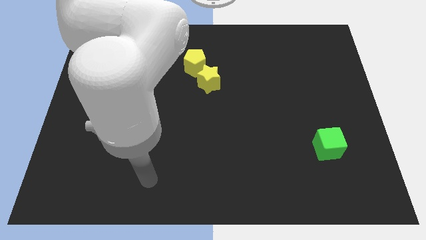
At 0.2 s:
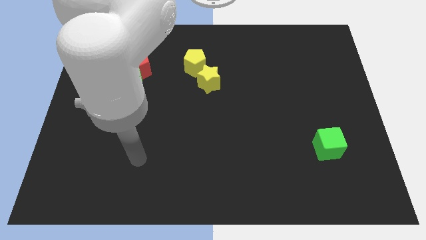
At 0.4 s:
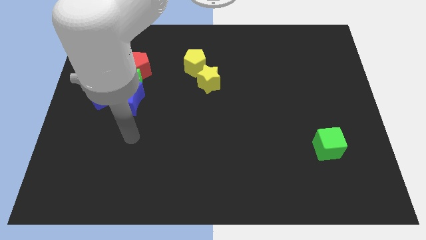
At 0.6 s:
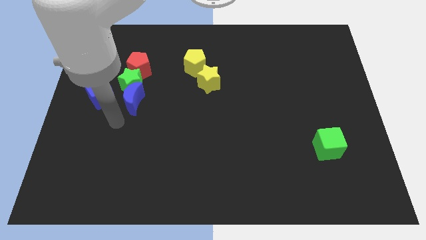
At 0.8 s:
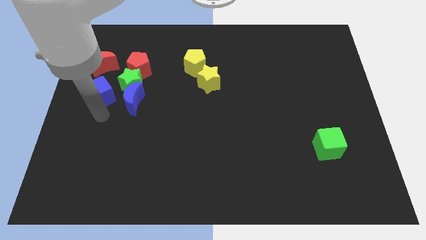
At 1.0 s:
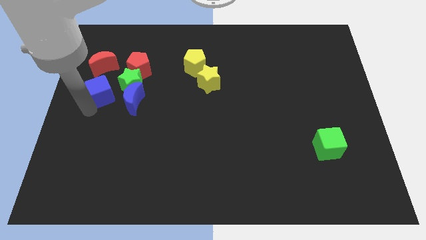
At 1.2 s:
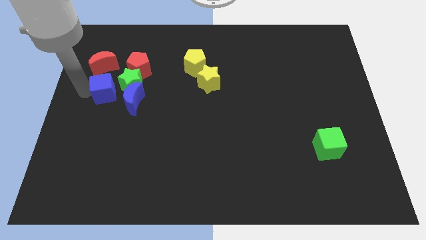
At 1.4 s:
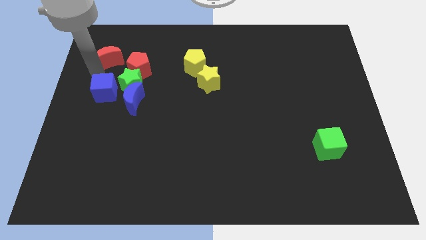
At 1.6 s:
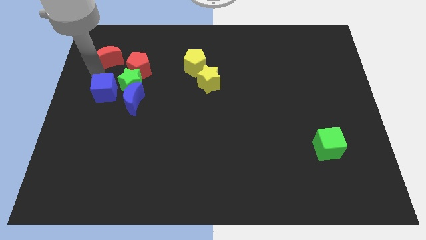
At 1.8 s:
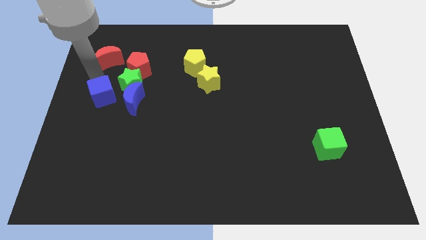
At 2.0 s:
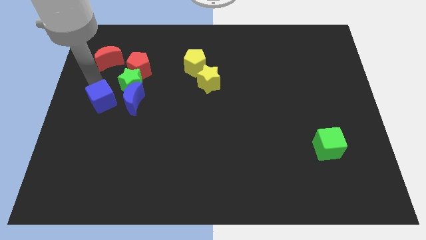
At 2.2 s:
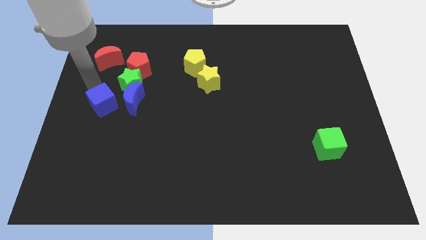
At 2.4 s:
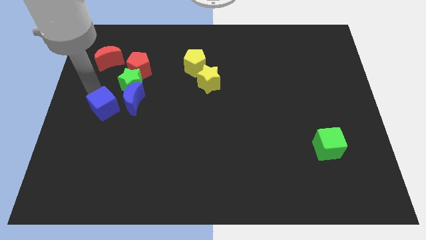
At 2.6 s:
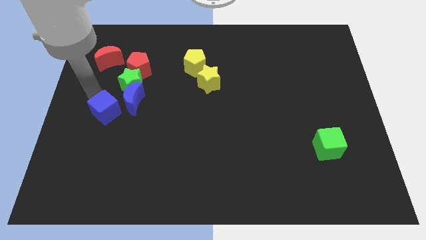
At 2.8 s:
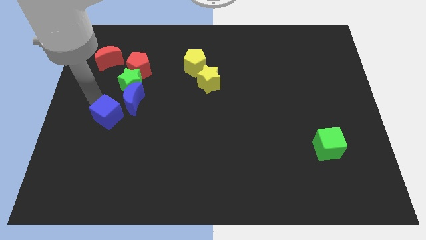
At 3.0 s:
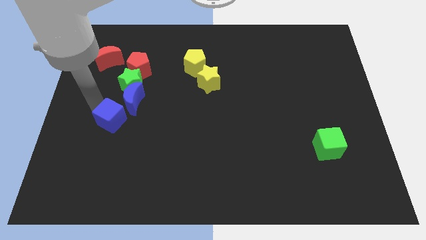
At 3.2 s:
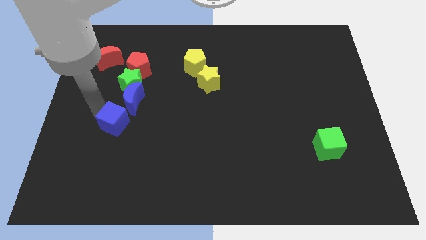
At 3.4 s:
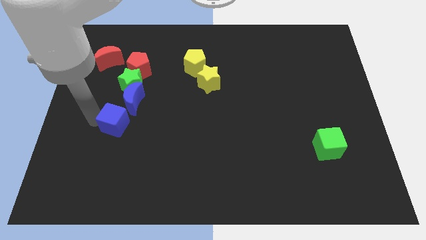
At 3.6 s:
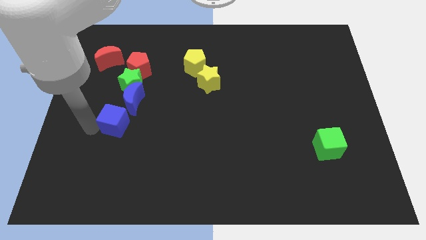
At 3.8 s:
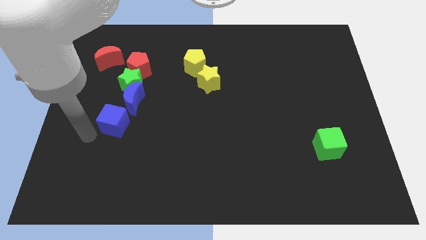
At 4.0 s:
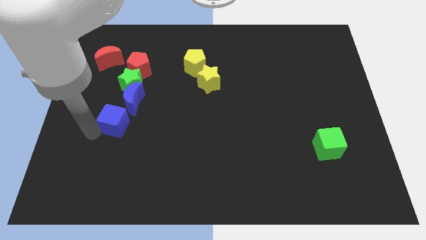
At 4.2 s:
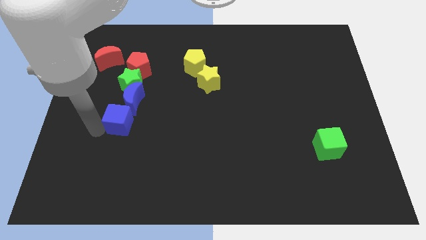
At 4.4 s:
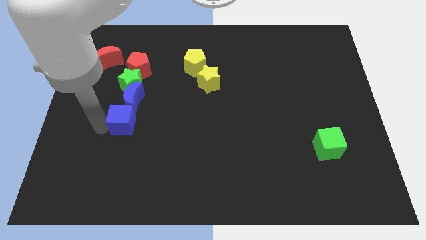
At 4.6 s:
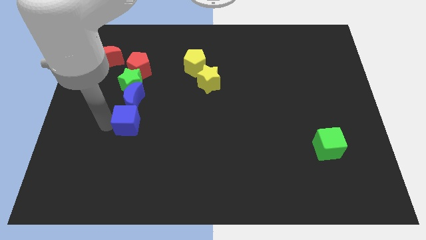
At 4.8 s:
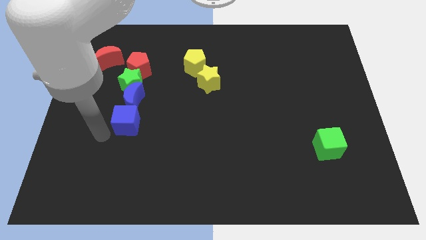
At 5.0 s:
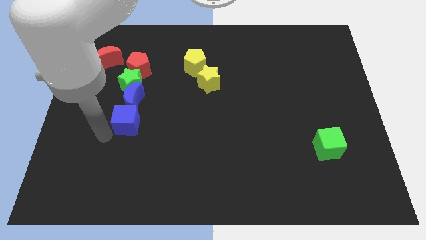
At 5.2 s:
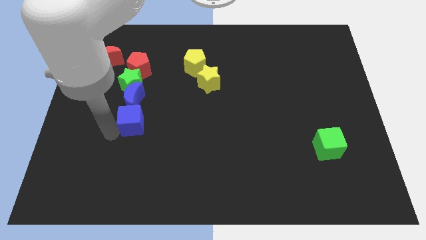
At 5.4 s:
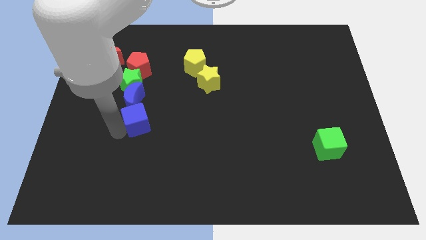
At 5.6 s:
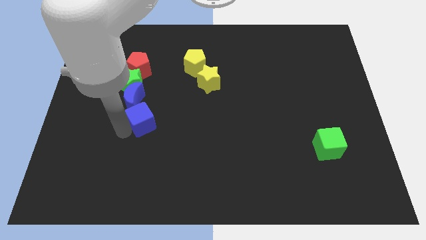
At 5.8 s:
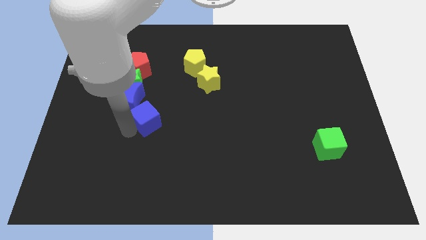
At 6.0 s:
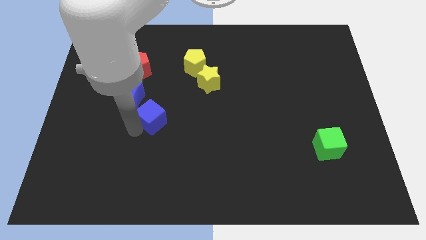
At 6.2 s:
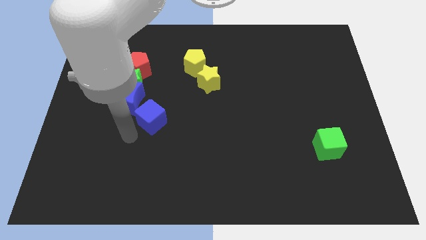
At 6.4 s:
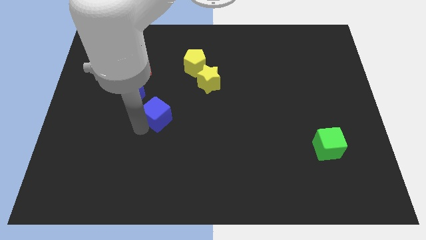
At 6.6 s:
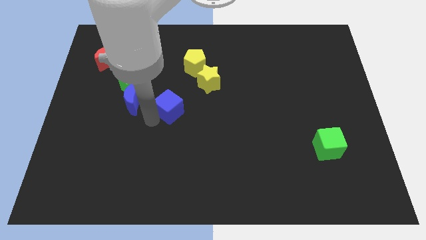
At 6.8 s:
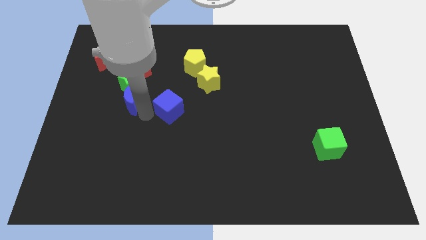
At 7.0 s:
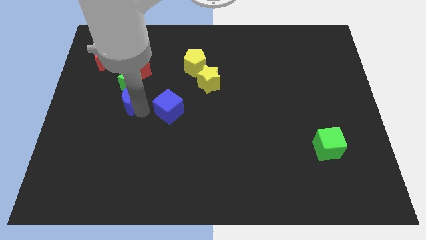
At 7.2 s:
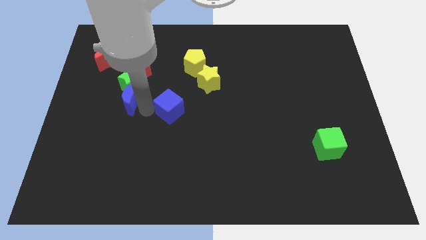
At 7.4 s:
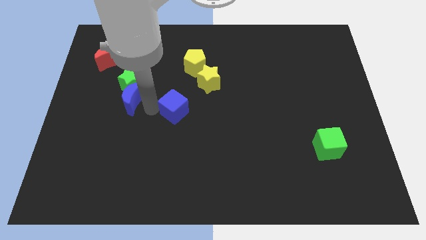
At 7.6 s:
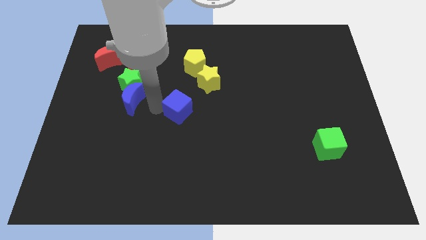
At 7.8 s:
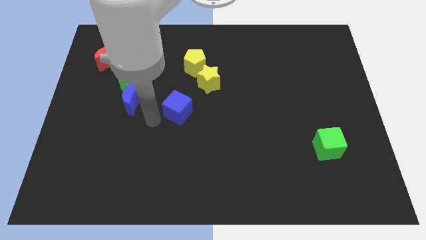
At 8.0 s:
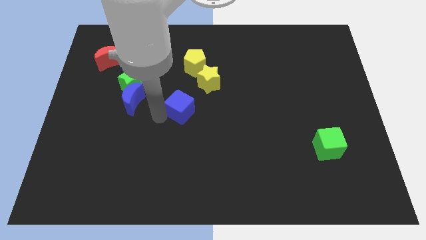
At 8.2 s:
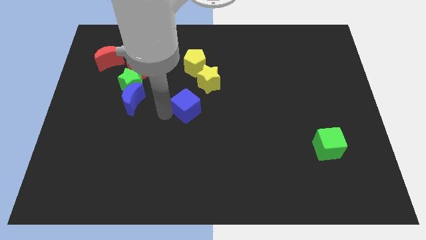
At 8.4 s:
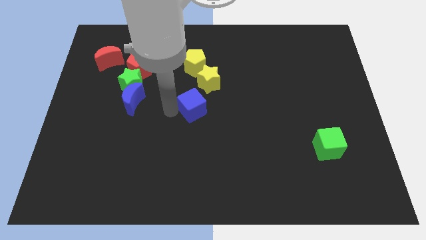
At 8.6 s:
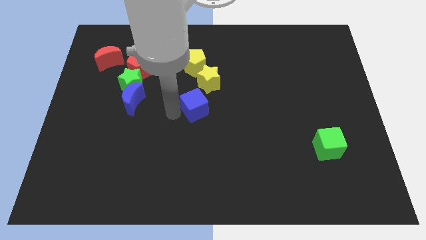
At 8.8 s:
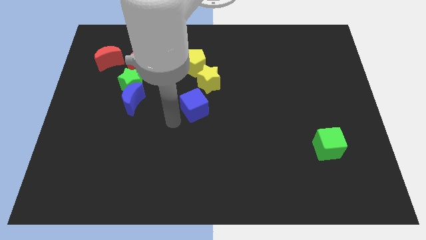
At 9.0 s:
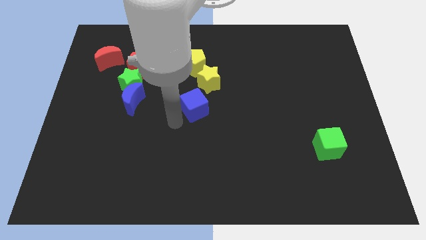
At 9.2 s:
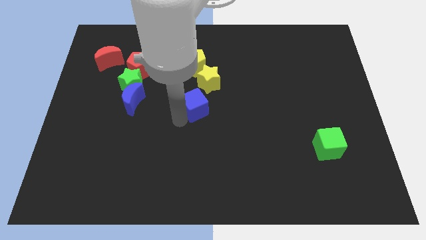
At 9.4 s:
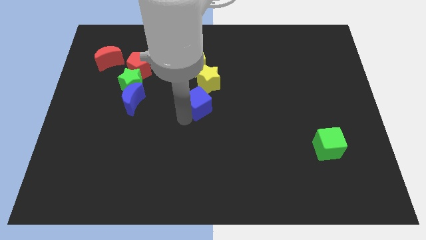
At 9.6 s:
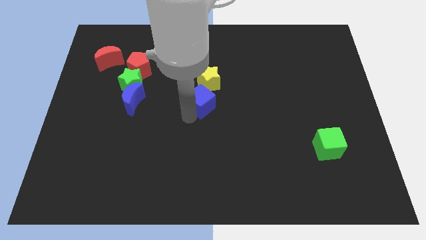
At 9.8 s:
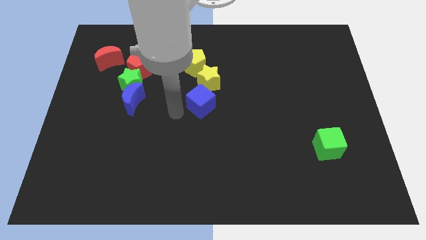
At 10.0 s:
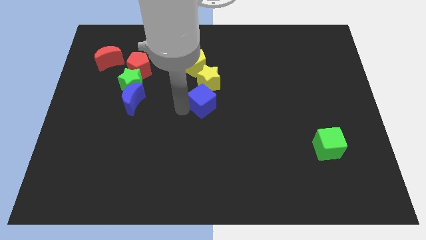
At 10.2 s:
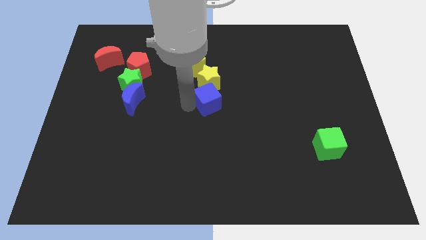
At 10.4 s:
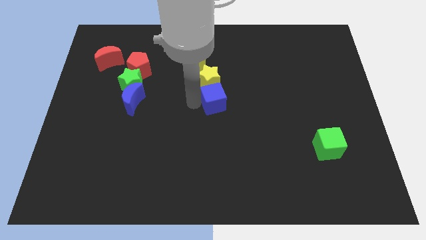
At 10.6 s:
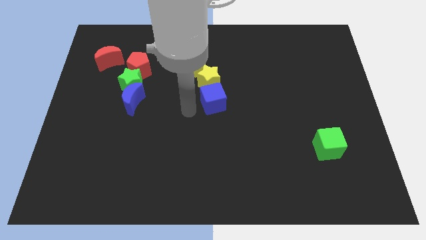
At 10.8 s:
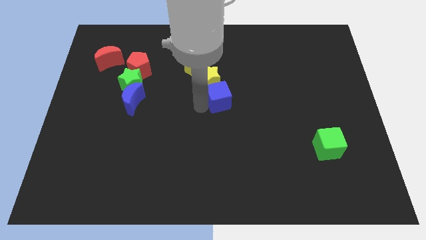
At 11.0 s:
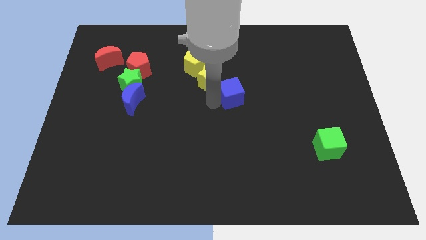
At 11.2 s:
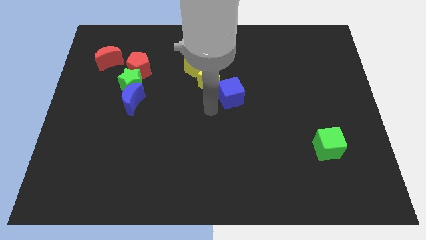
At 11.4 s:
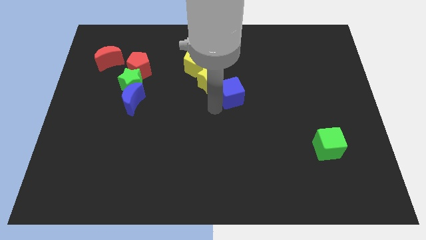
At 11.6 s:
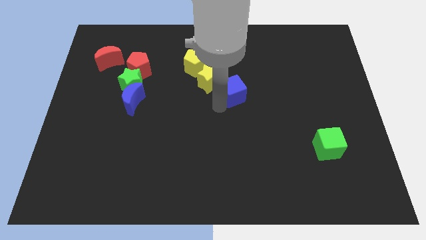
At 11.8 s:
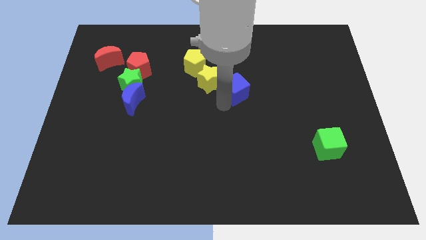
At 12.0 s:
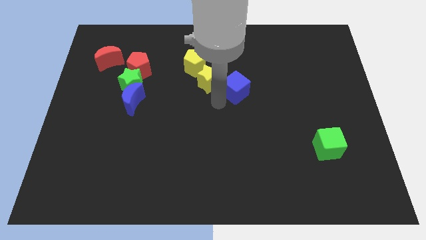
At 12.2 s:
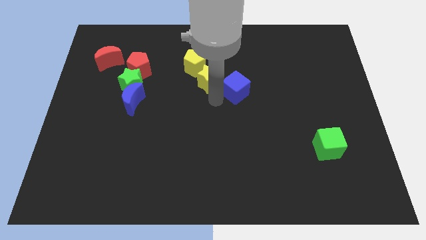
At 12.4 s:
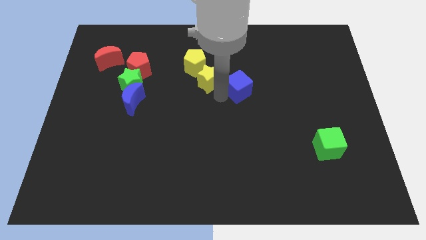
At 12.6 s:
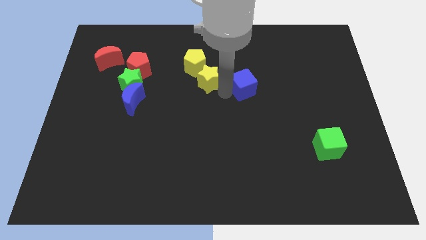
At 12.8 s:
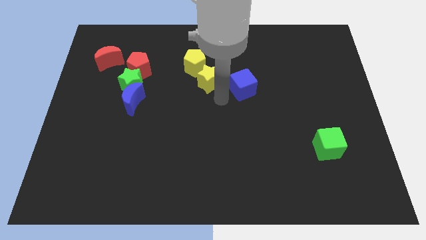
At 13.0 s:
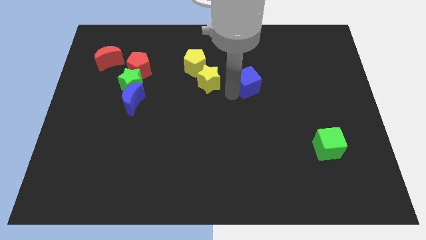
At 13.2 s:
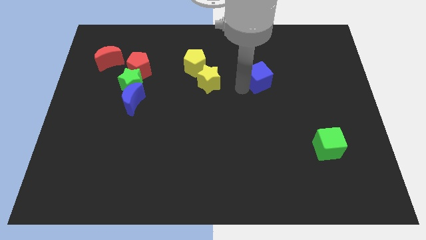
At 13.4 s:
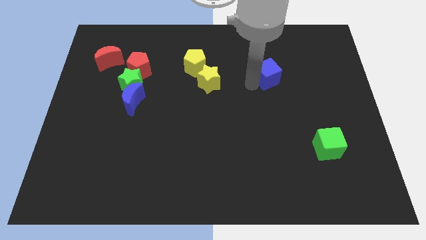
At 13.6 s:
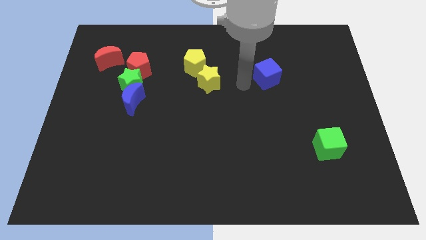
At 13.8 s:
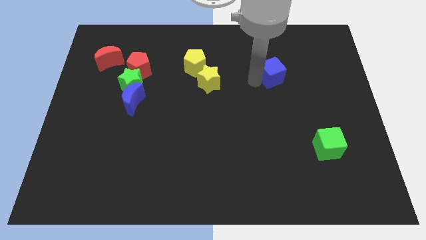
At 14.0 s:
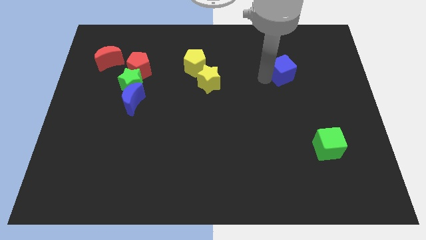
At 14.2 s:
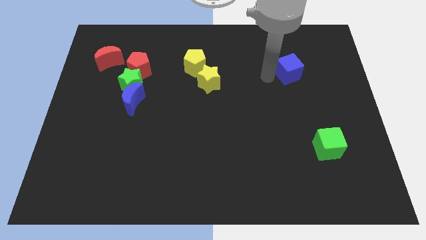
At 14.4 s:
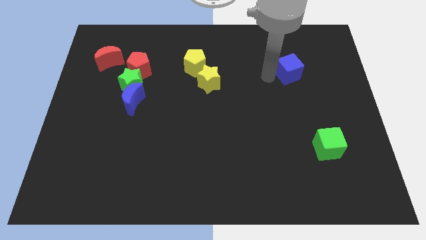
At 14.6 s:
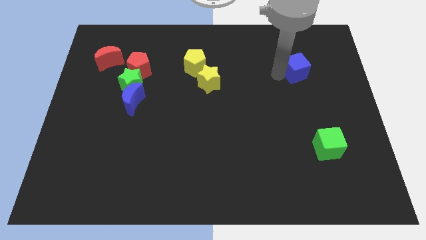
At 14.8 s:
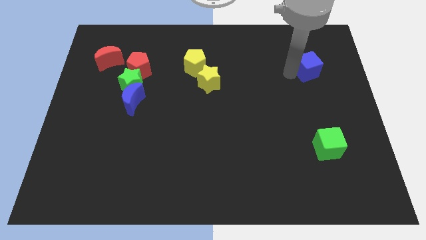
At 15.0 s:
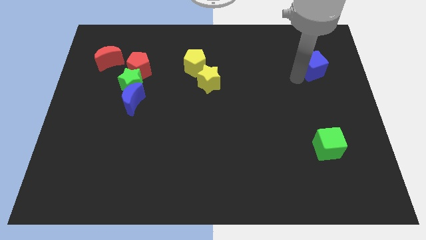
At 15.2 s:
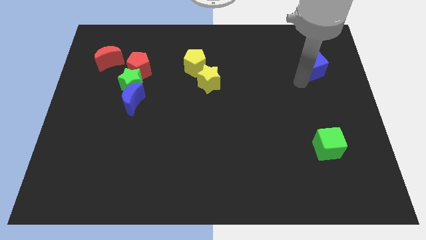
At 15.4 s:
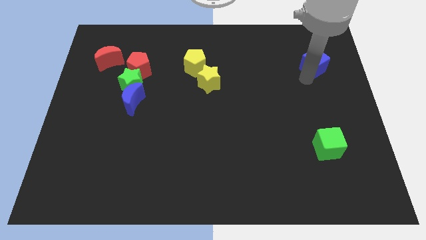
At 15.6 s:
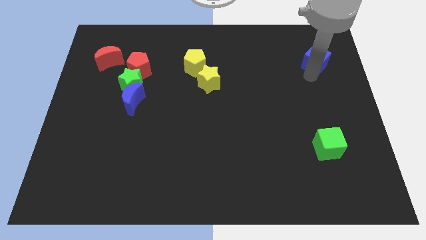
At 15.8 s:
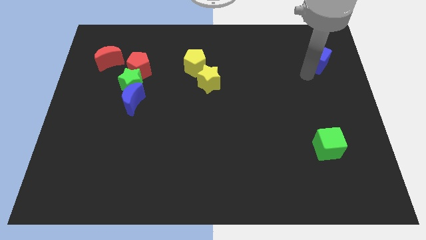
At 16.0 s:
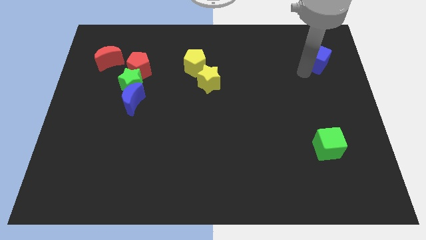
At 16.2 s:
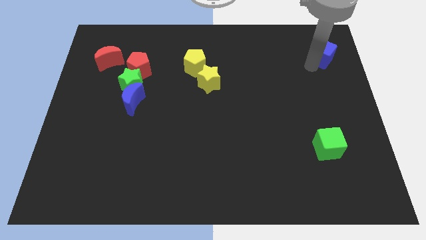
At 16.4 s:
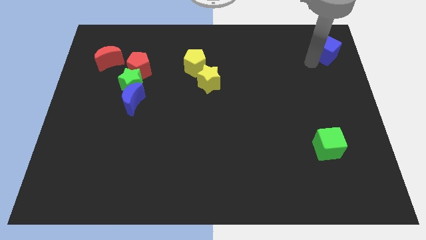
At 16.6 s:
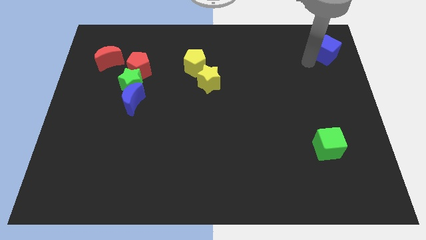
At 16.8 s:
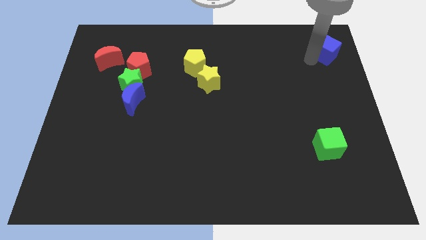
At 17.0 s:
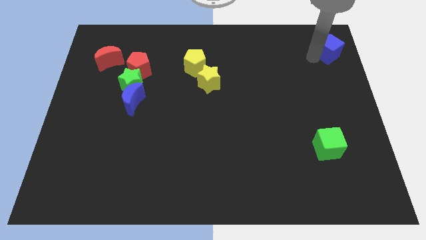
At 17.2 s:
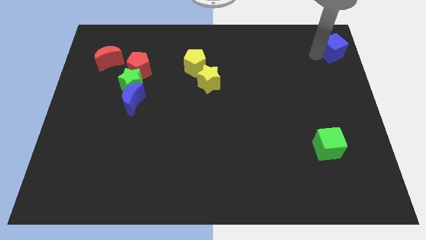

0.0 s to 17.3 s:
move the blue cube to the top right corner
